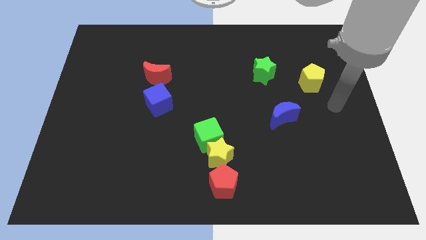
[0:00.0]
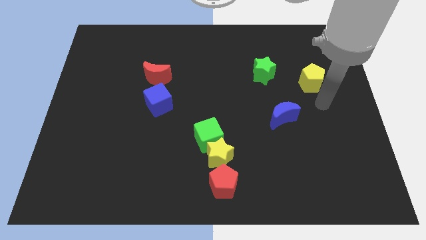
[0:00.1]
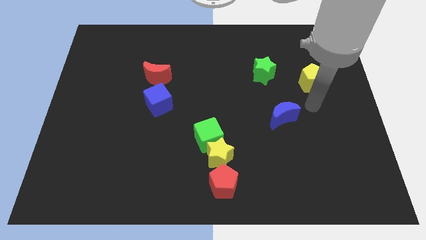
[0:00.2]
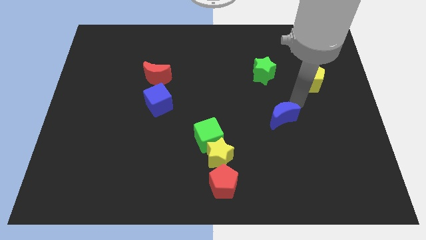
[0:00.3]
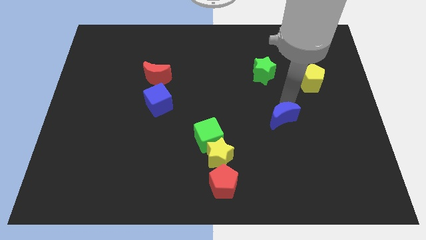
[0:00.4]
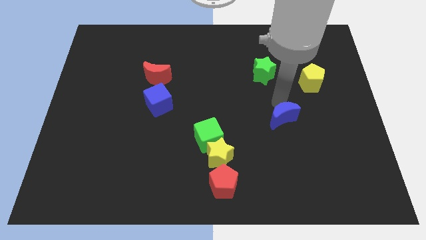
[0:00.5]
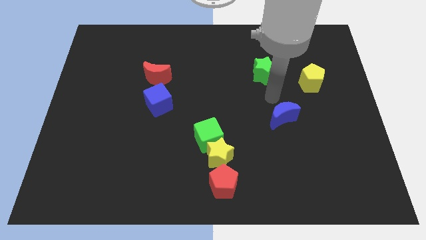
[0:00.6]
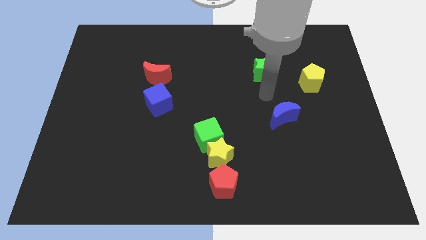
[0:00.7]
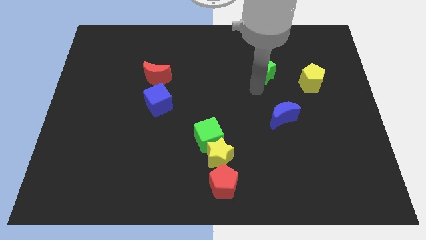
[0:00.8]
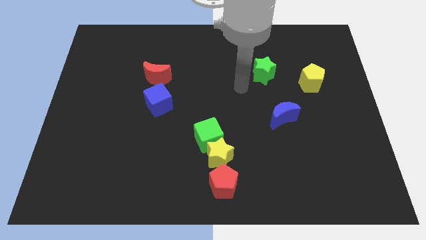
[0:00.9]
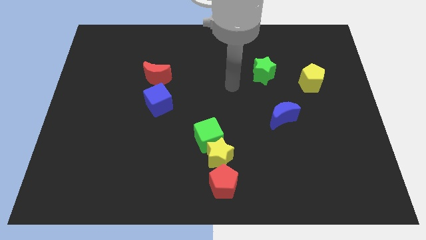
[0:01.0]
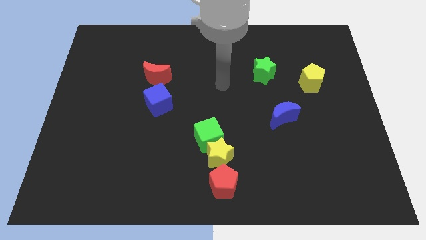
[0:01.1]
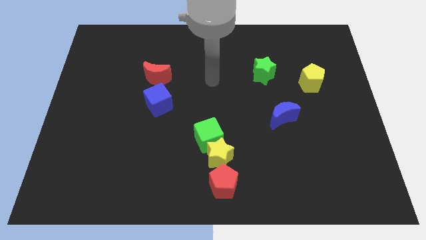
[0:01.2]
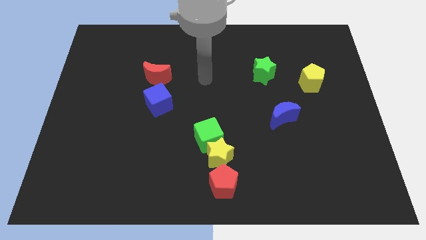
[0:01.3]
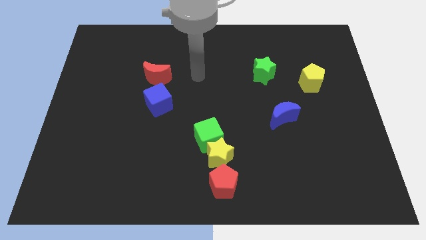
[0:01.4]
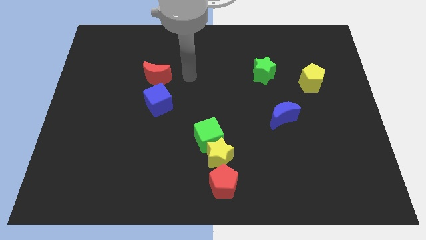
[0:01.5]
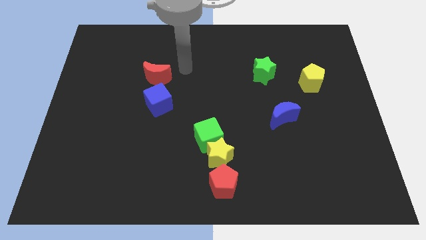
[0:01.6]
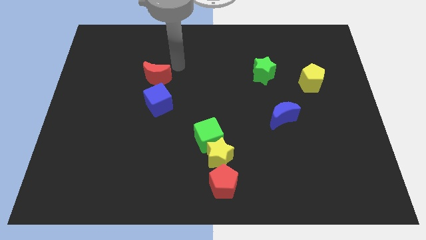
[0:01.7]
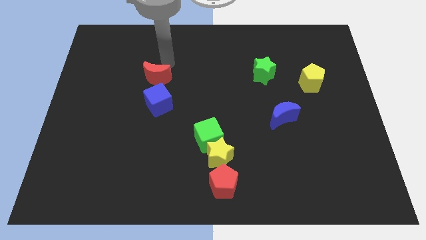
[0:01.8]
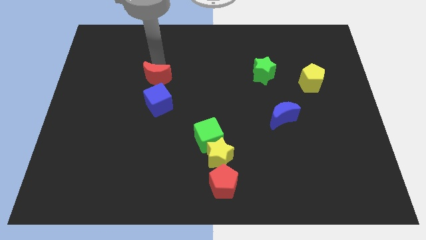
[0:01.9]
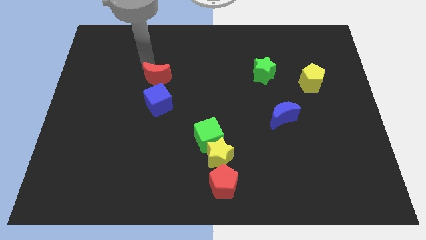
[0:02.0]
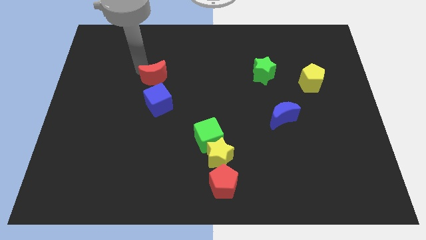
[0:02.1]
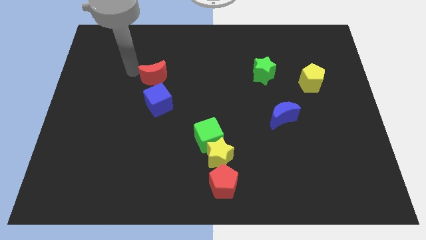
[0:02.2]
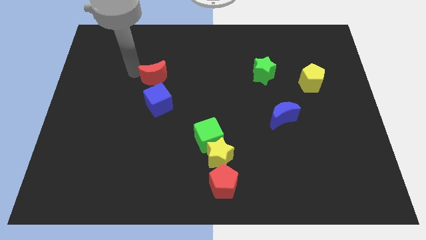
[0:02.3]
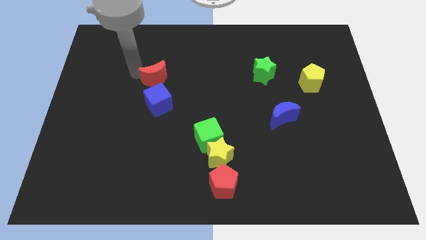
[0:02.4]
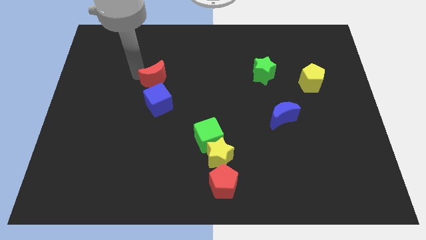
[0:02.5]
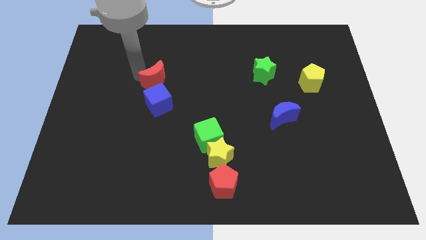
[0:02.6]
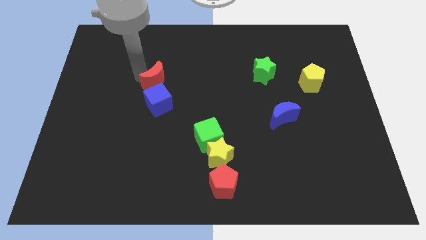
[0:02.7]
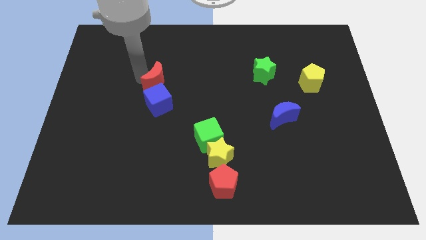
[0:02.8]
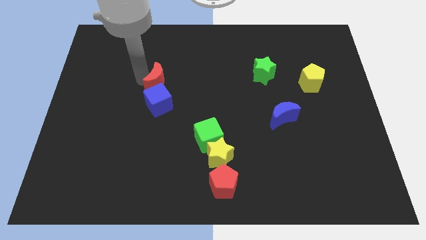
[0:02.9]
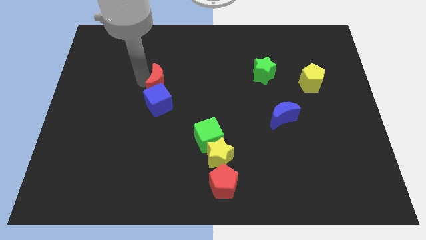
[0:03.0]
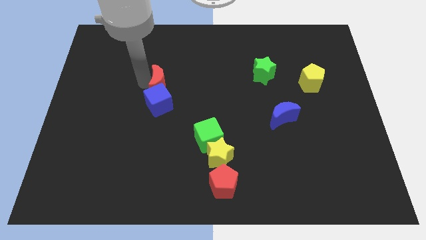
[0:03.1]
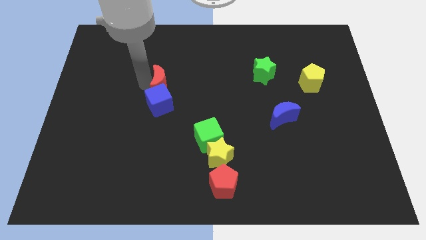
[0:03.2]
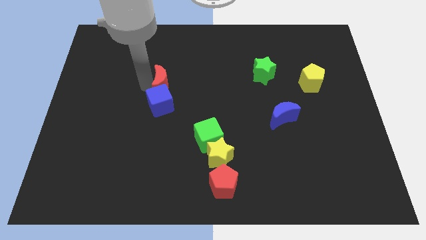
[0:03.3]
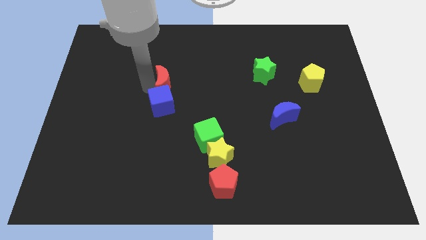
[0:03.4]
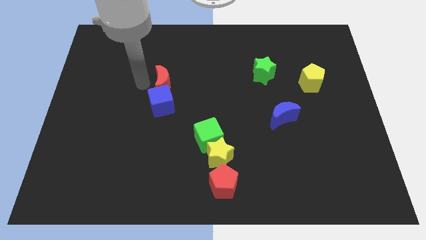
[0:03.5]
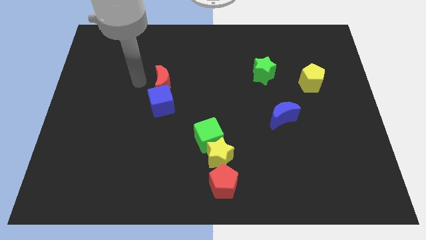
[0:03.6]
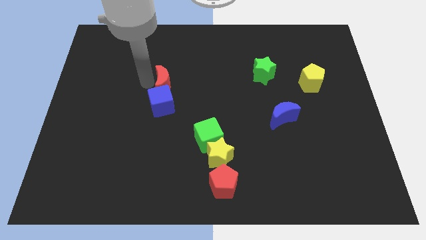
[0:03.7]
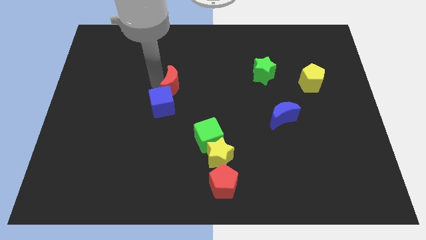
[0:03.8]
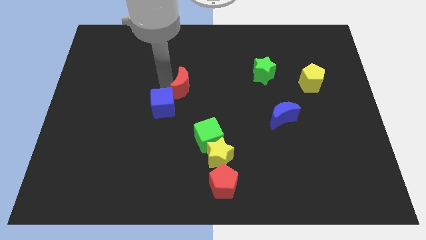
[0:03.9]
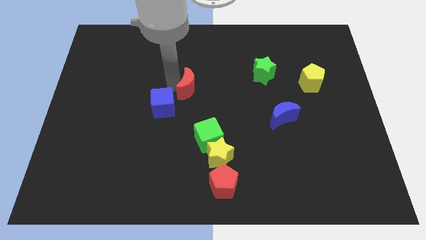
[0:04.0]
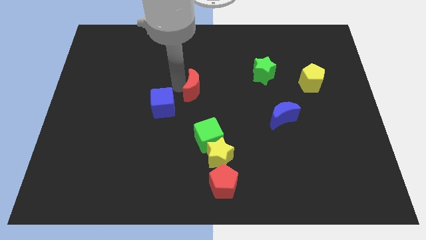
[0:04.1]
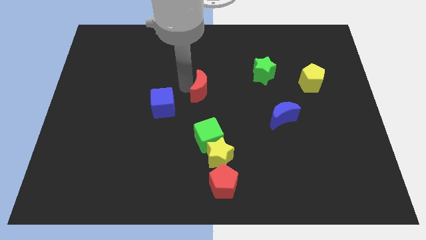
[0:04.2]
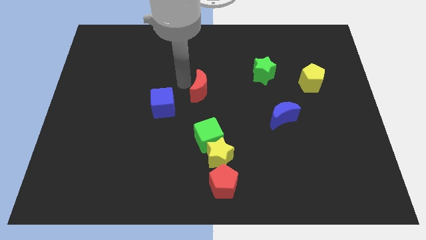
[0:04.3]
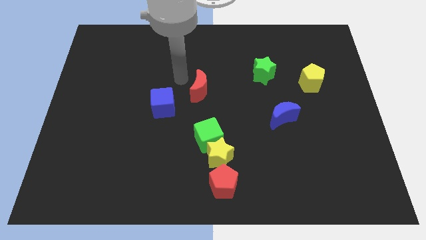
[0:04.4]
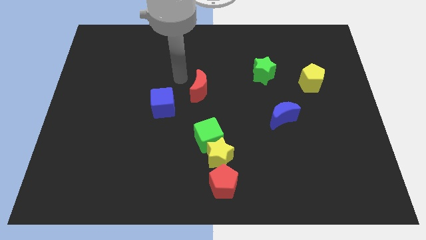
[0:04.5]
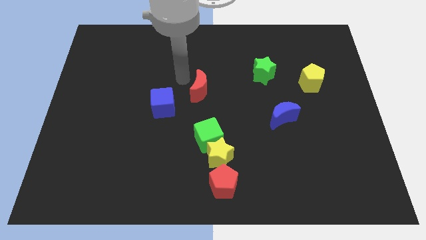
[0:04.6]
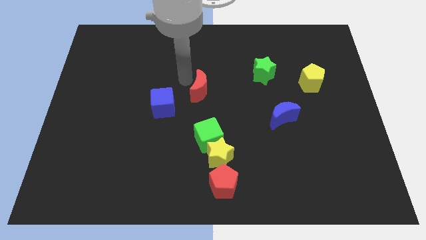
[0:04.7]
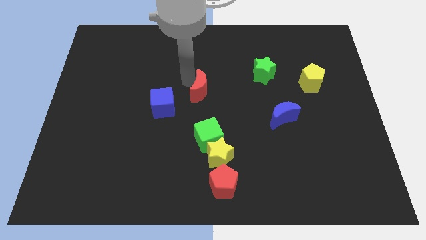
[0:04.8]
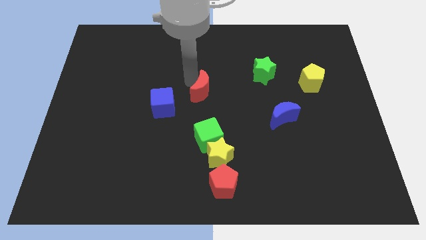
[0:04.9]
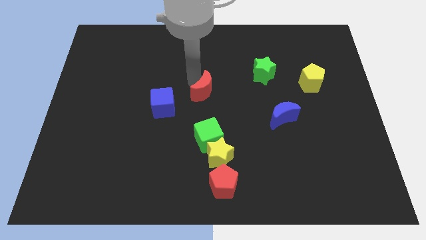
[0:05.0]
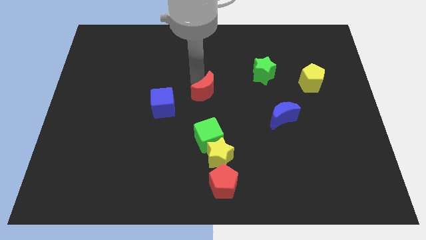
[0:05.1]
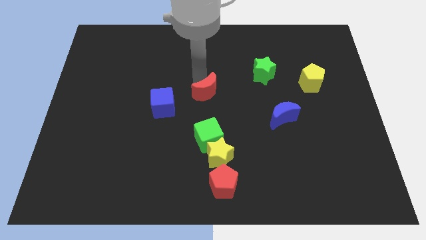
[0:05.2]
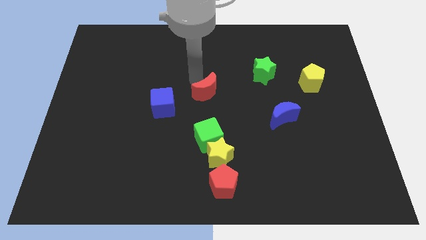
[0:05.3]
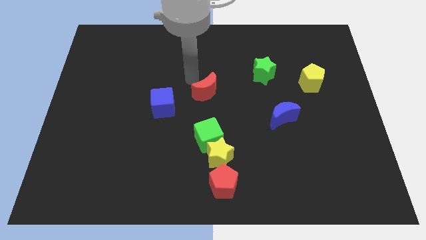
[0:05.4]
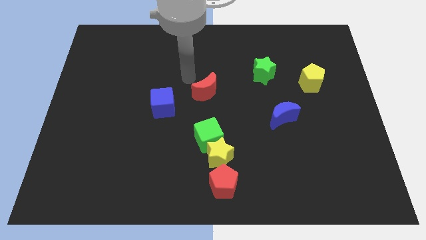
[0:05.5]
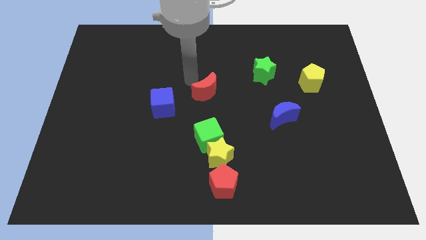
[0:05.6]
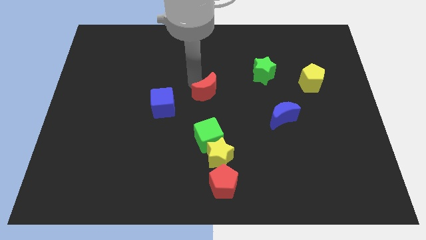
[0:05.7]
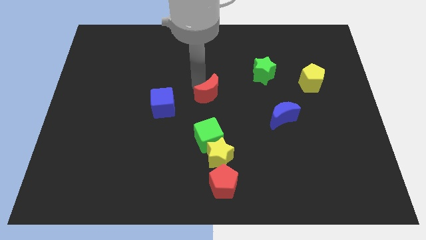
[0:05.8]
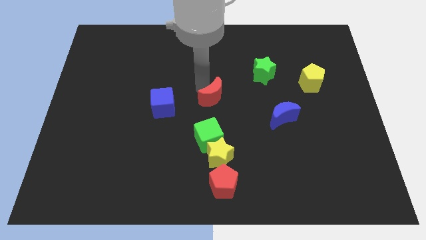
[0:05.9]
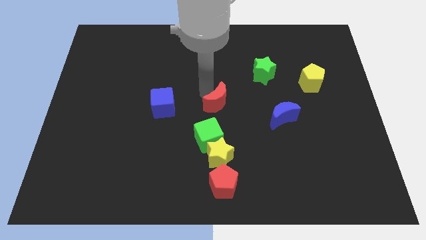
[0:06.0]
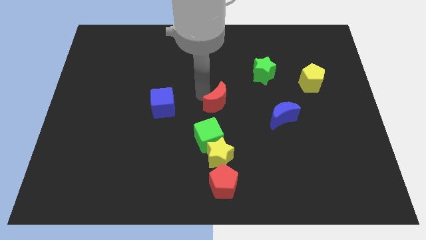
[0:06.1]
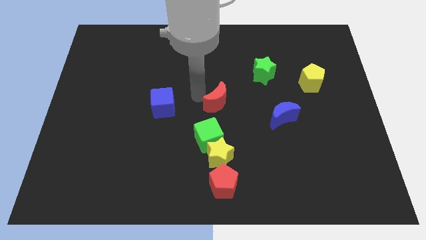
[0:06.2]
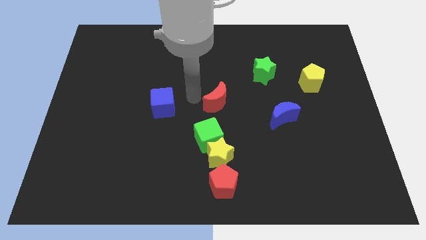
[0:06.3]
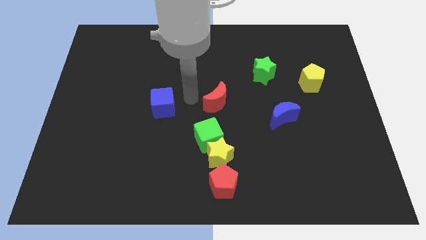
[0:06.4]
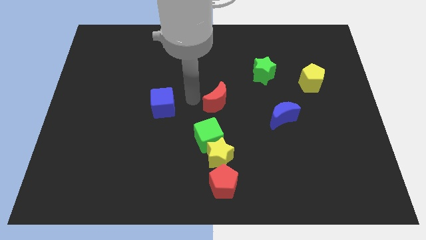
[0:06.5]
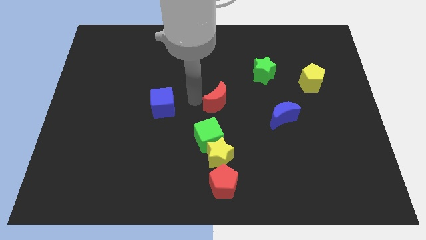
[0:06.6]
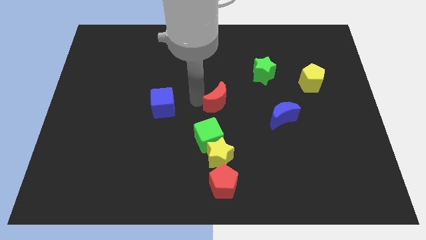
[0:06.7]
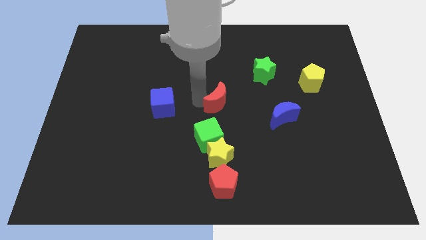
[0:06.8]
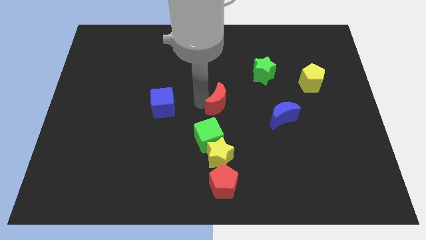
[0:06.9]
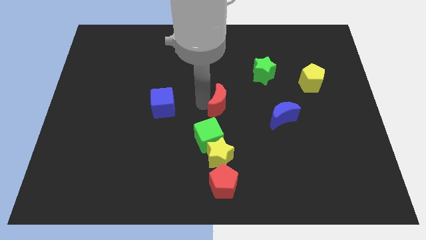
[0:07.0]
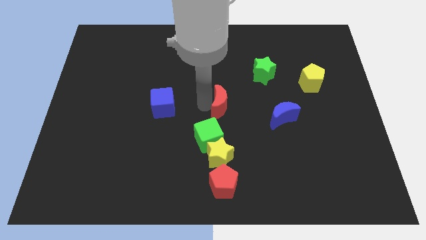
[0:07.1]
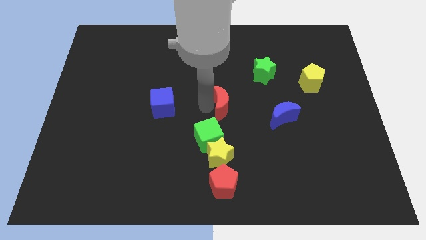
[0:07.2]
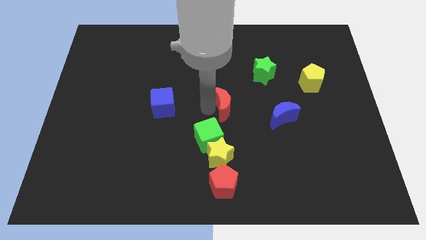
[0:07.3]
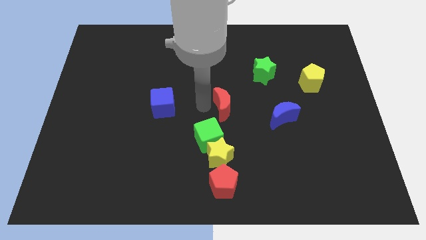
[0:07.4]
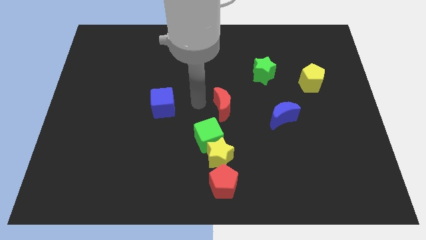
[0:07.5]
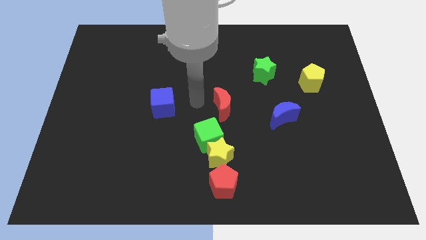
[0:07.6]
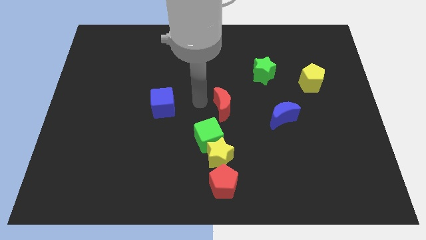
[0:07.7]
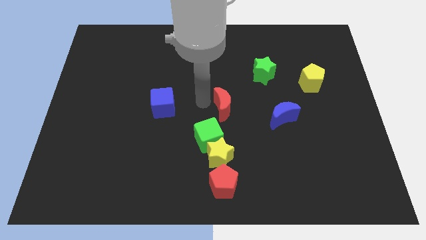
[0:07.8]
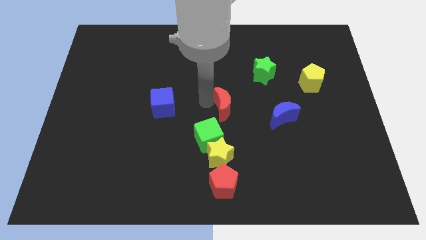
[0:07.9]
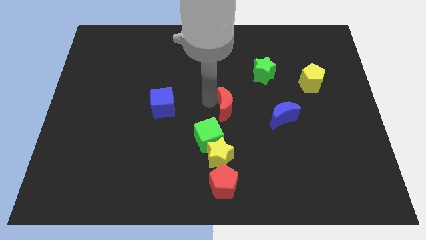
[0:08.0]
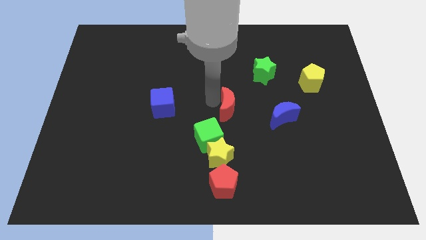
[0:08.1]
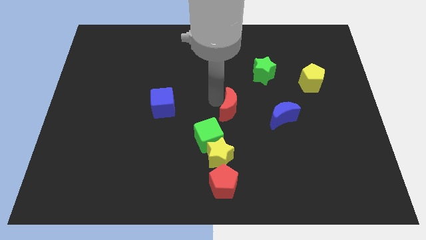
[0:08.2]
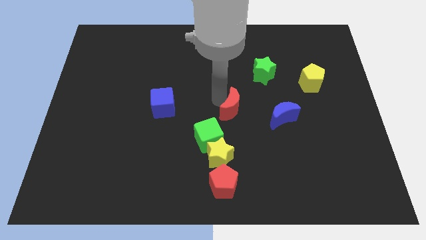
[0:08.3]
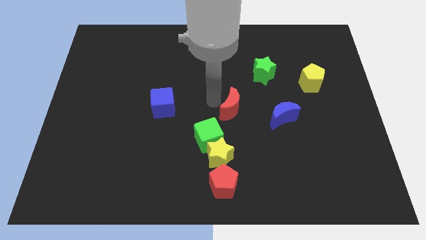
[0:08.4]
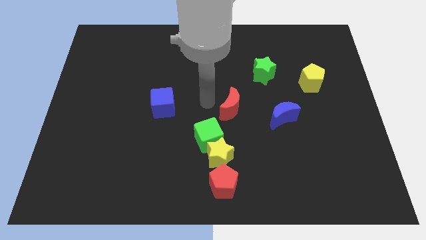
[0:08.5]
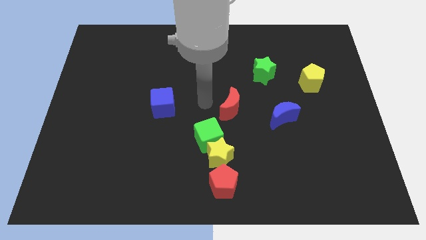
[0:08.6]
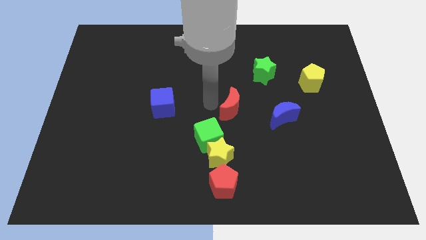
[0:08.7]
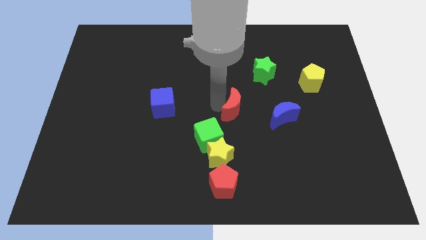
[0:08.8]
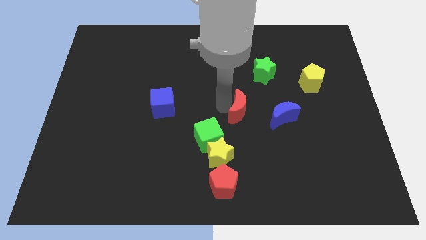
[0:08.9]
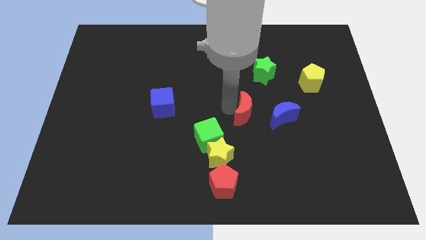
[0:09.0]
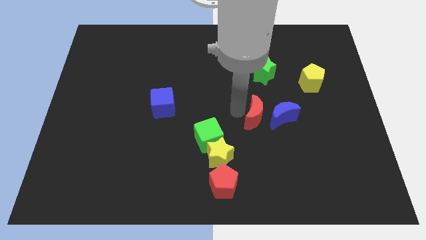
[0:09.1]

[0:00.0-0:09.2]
push the red moon next to the blue moon
